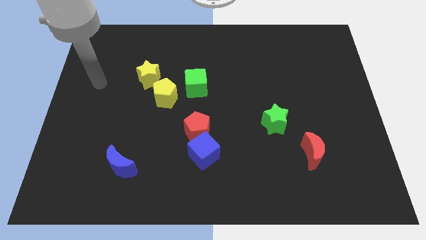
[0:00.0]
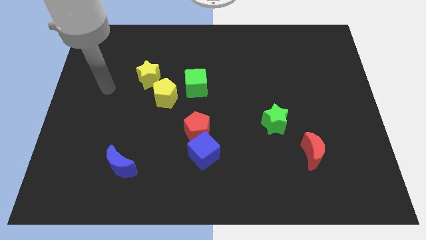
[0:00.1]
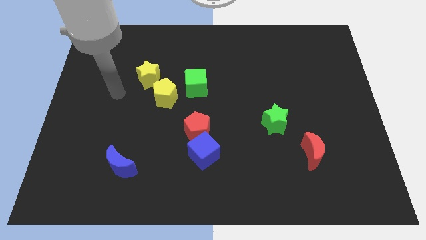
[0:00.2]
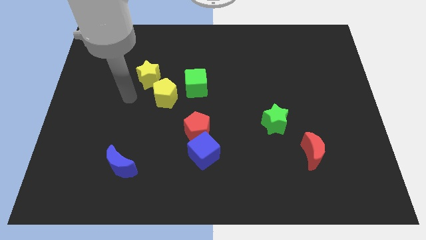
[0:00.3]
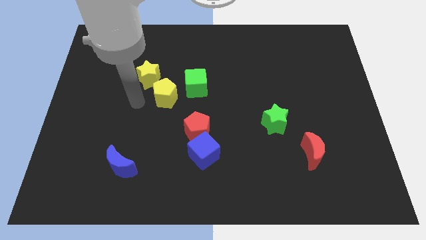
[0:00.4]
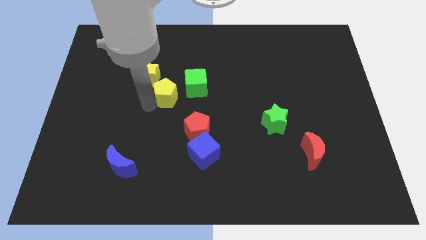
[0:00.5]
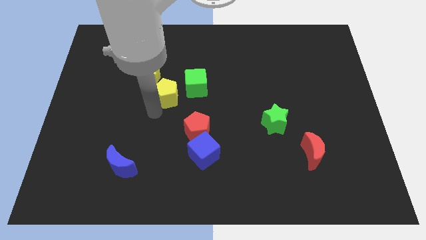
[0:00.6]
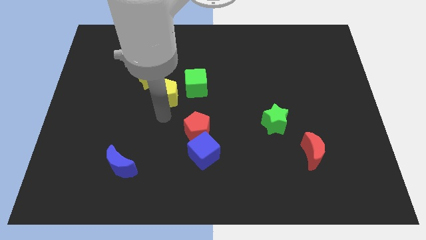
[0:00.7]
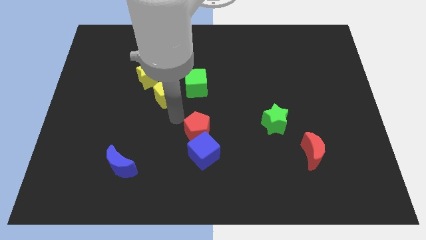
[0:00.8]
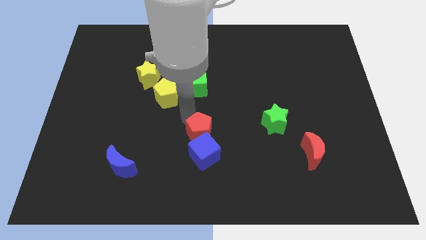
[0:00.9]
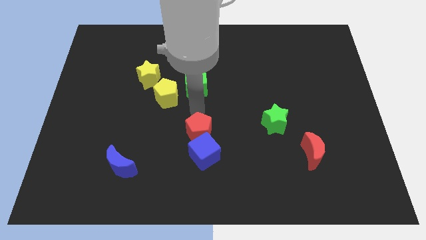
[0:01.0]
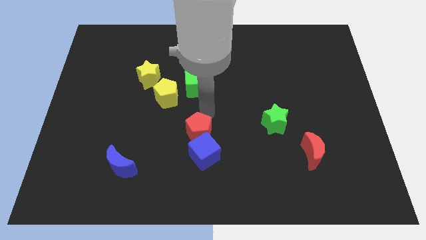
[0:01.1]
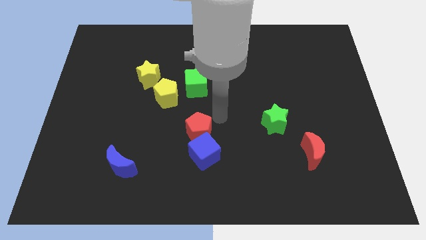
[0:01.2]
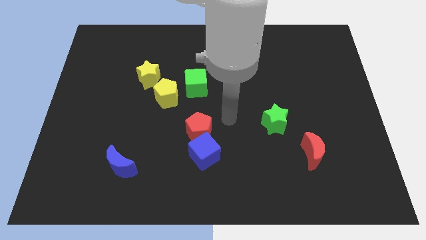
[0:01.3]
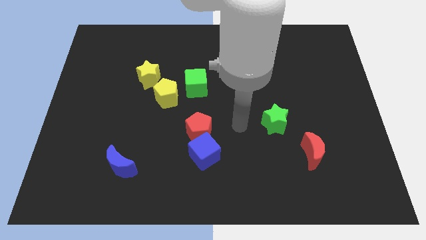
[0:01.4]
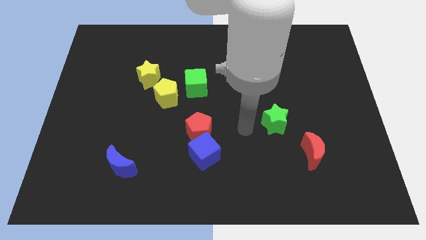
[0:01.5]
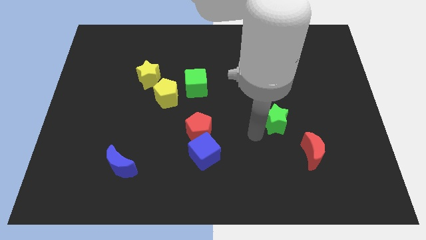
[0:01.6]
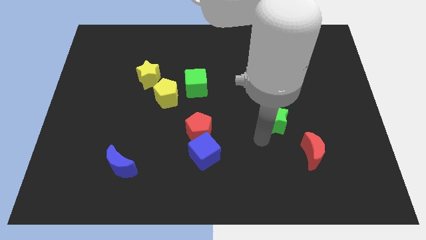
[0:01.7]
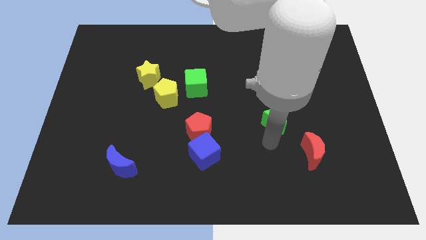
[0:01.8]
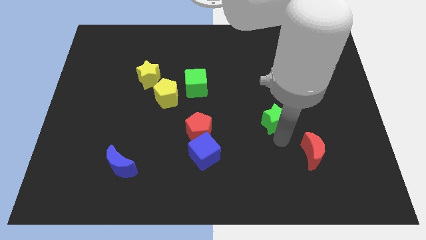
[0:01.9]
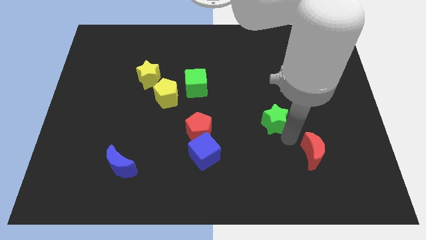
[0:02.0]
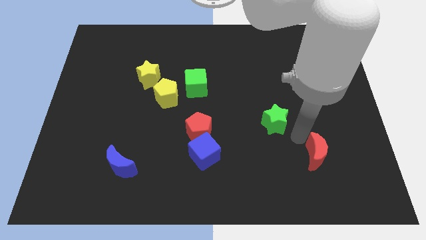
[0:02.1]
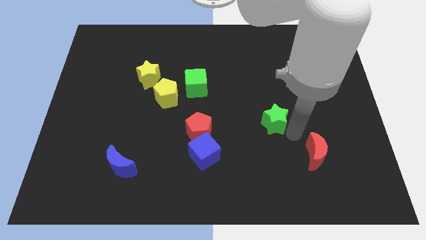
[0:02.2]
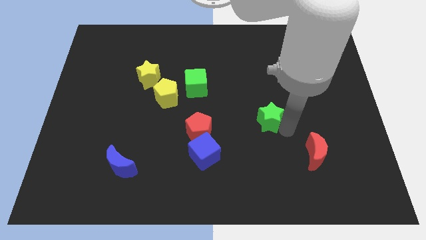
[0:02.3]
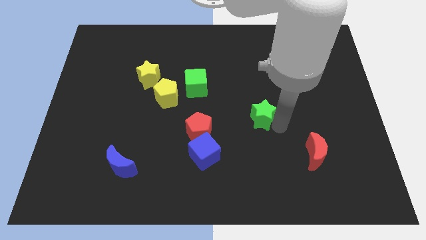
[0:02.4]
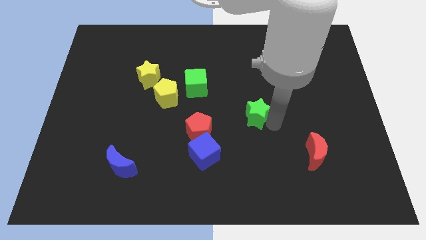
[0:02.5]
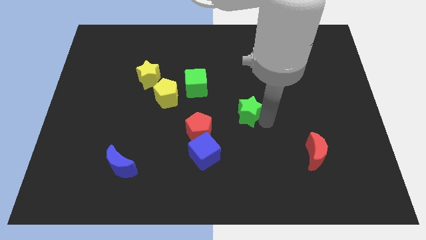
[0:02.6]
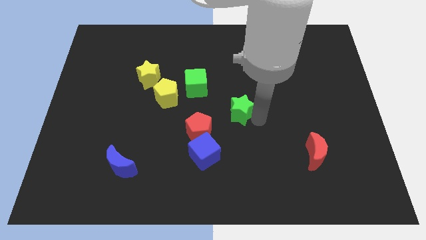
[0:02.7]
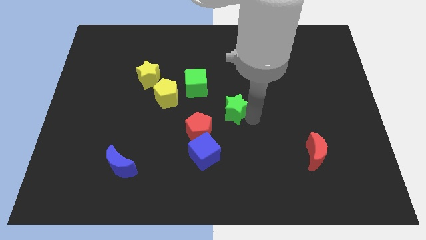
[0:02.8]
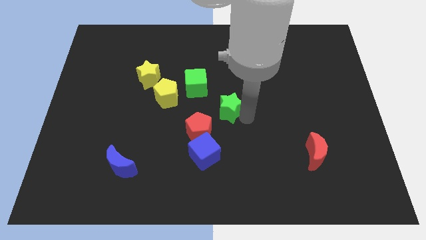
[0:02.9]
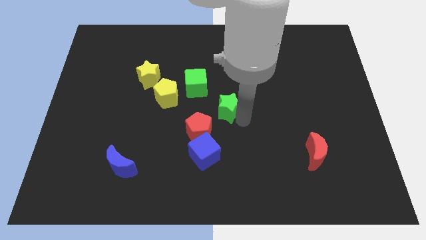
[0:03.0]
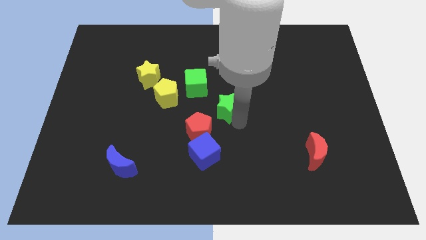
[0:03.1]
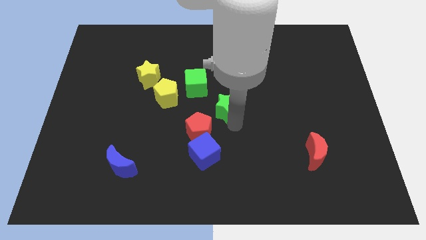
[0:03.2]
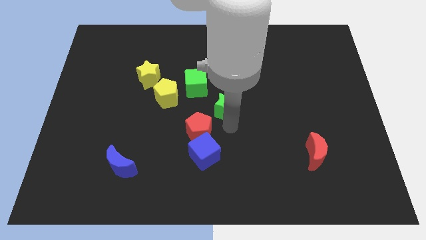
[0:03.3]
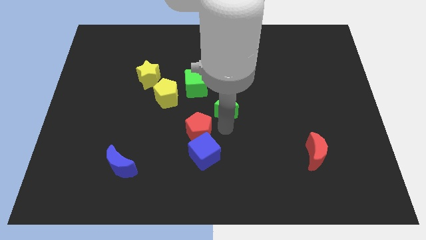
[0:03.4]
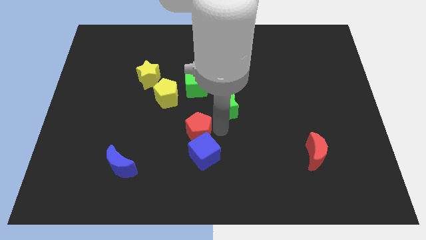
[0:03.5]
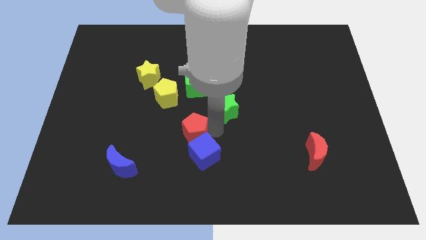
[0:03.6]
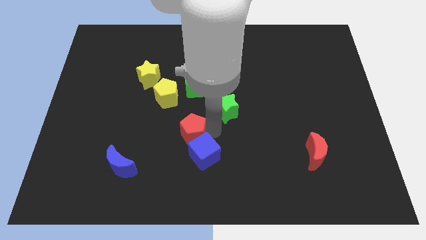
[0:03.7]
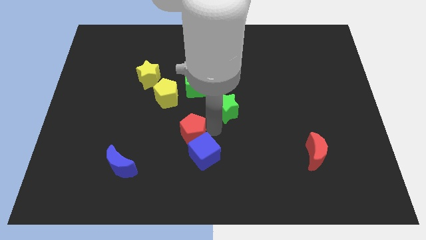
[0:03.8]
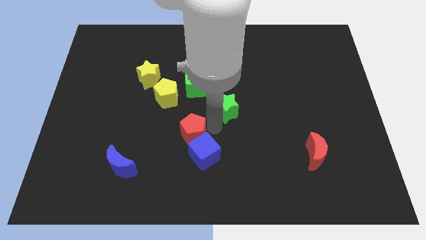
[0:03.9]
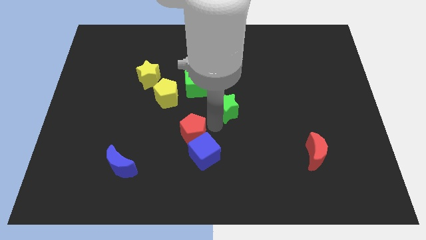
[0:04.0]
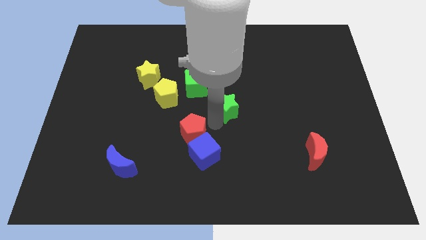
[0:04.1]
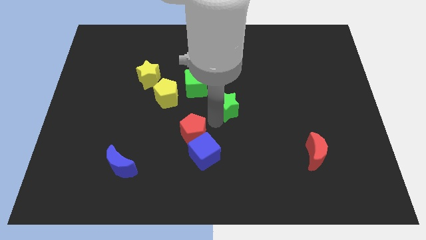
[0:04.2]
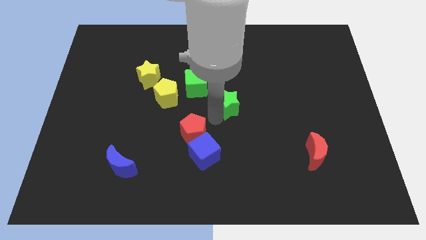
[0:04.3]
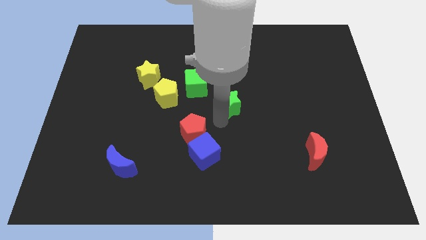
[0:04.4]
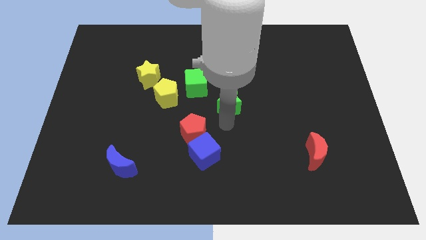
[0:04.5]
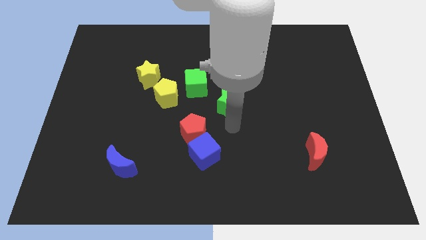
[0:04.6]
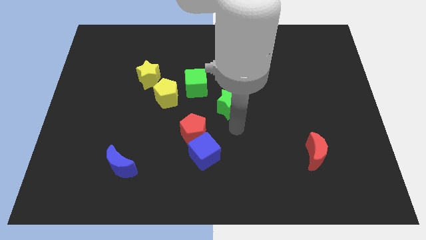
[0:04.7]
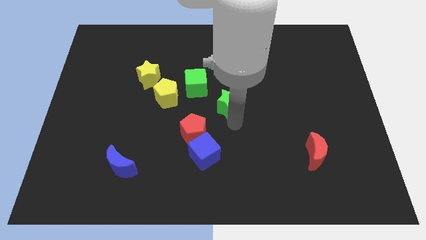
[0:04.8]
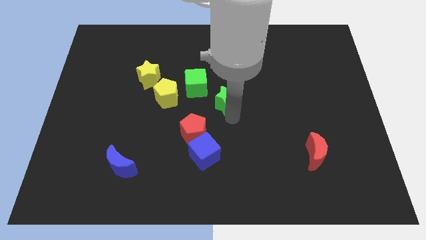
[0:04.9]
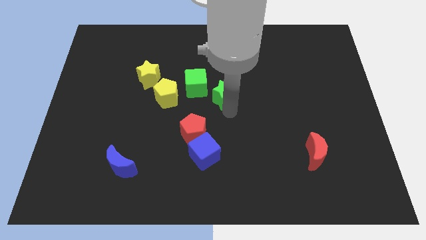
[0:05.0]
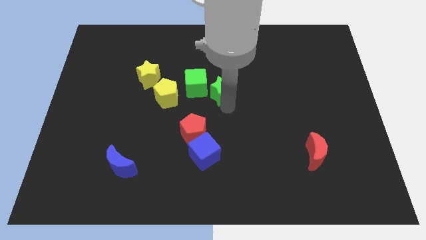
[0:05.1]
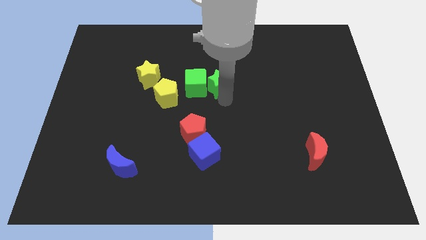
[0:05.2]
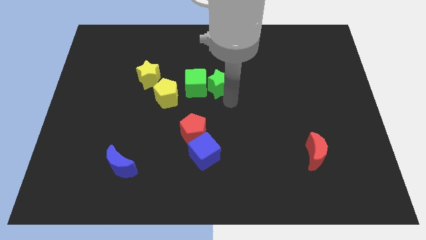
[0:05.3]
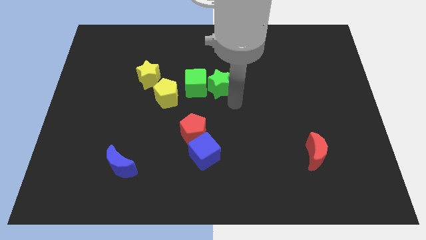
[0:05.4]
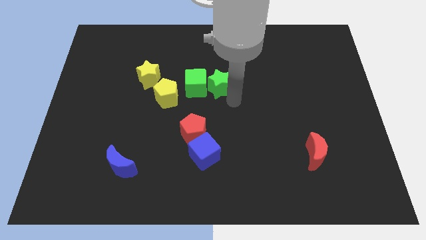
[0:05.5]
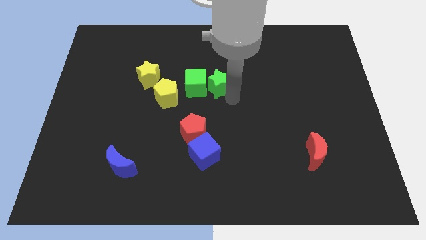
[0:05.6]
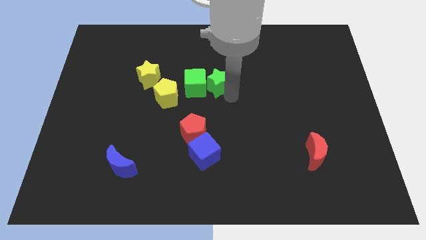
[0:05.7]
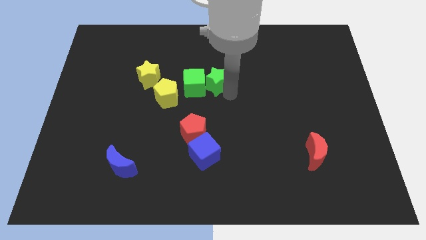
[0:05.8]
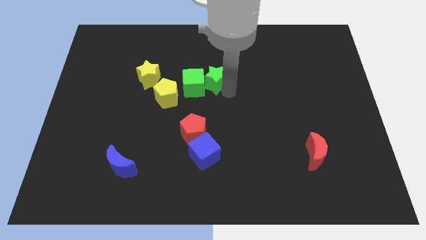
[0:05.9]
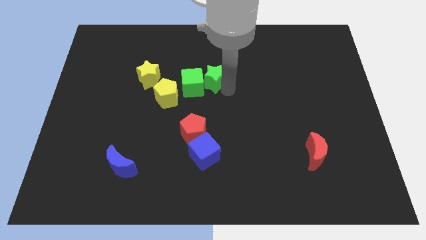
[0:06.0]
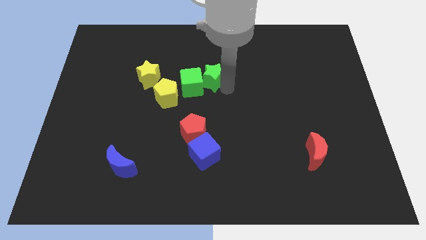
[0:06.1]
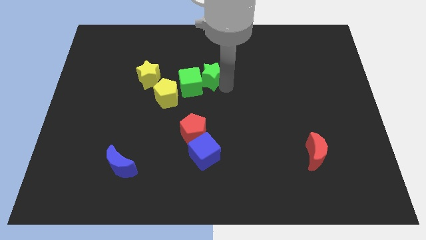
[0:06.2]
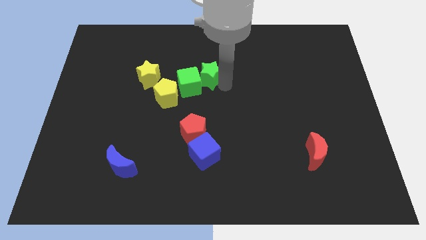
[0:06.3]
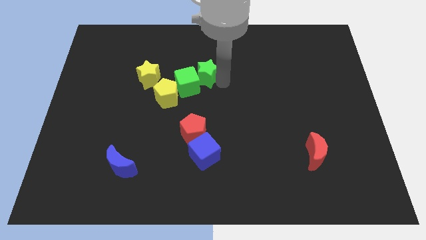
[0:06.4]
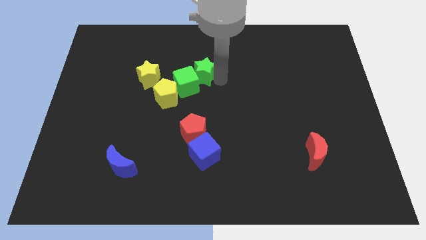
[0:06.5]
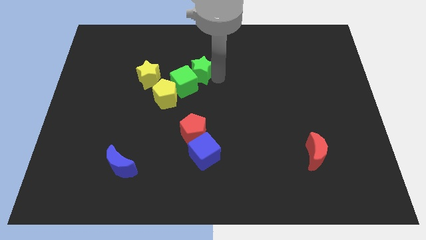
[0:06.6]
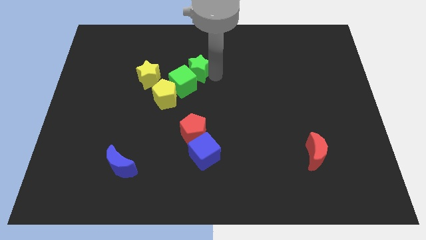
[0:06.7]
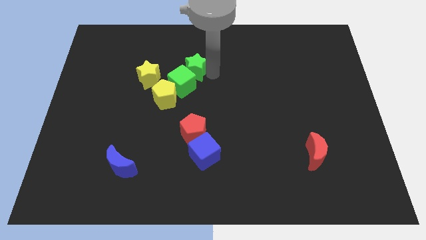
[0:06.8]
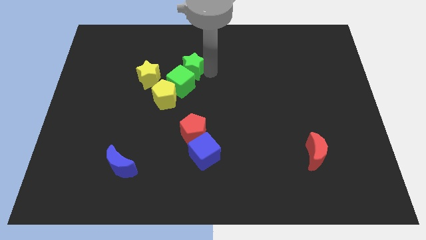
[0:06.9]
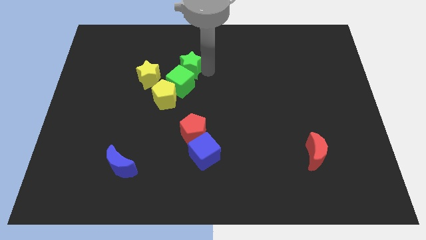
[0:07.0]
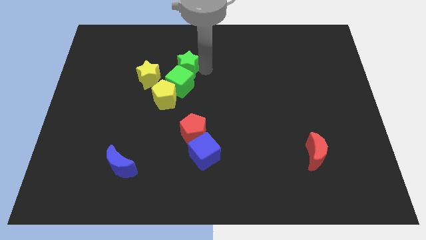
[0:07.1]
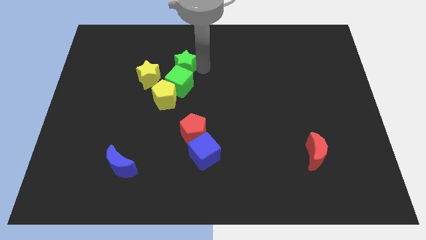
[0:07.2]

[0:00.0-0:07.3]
push the green star to the top side of the yellow pentagon
